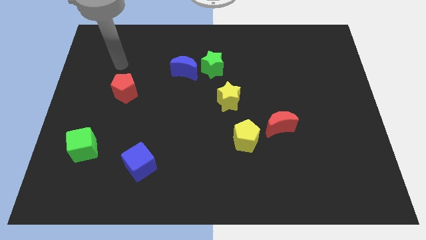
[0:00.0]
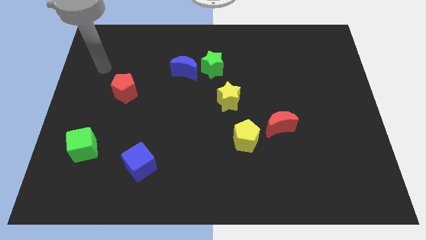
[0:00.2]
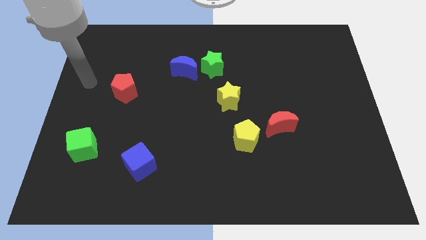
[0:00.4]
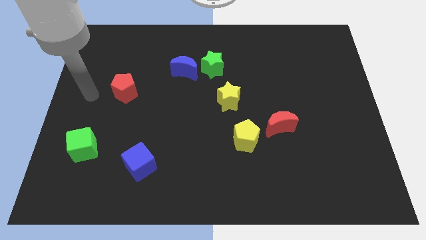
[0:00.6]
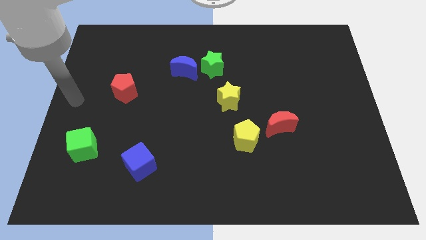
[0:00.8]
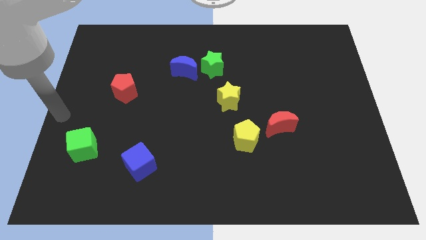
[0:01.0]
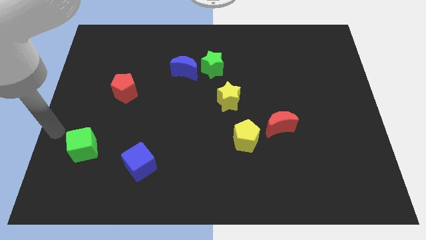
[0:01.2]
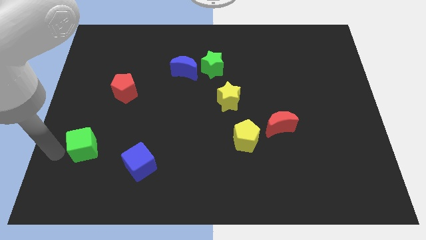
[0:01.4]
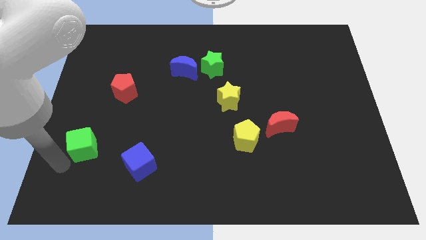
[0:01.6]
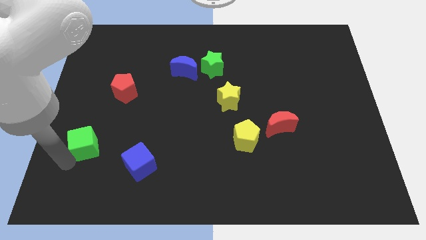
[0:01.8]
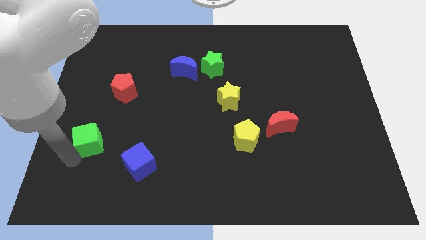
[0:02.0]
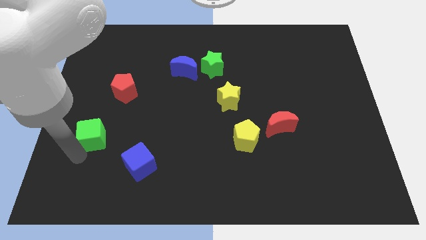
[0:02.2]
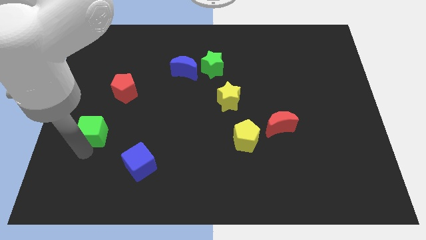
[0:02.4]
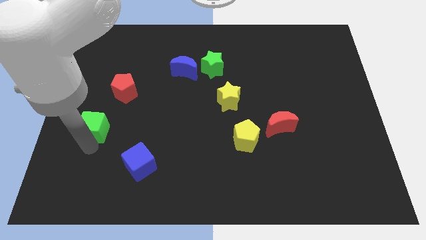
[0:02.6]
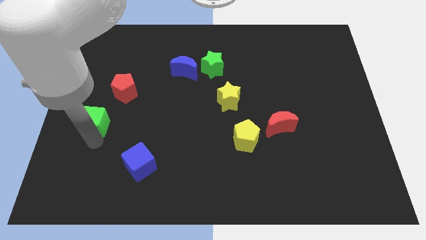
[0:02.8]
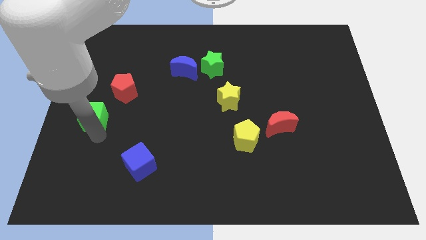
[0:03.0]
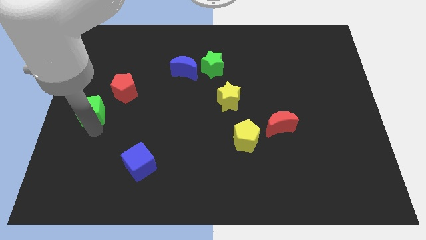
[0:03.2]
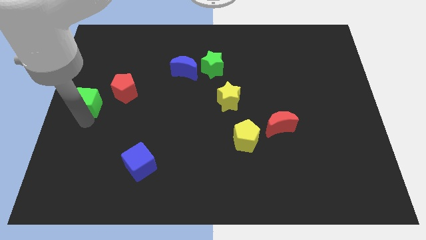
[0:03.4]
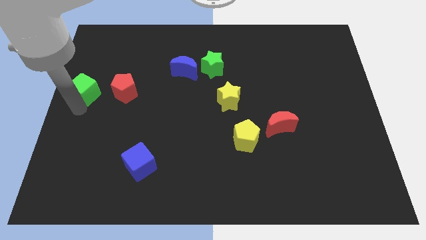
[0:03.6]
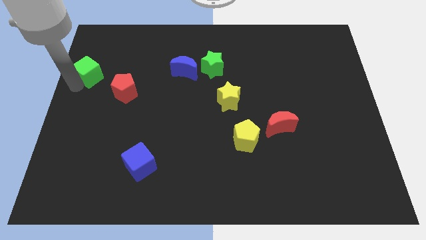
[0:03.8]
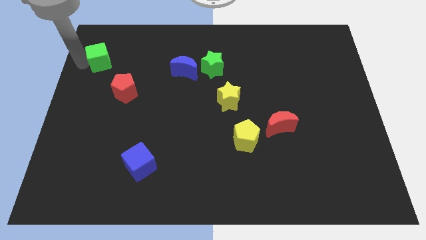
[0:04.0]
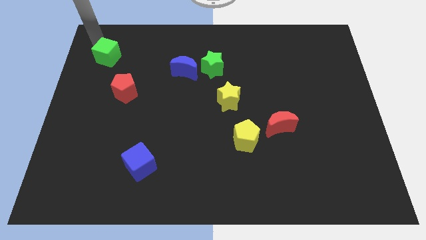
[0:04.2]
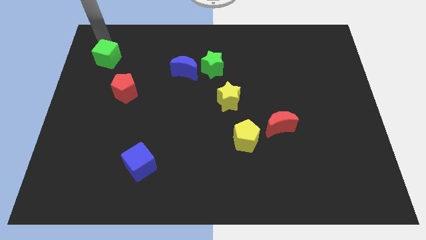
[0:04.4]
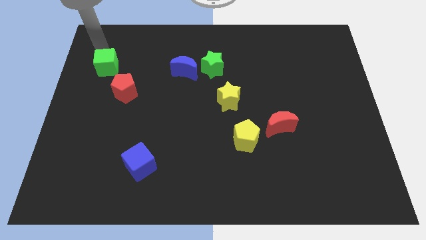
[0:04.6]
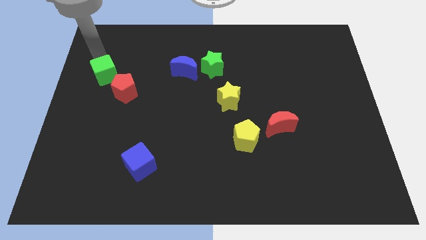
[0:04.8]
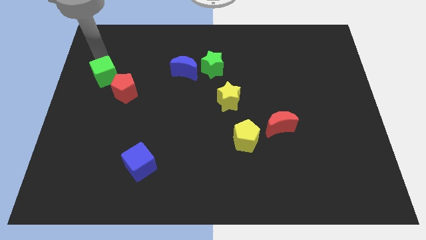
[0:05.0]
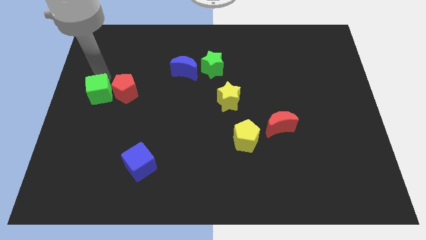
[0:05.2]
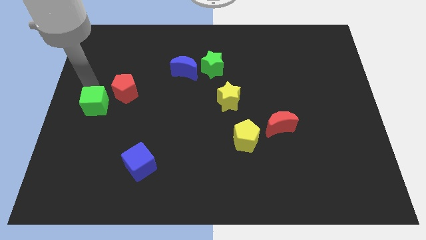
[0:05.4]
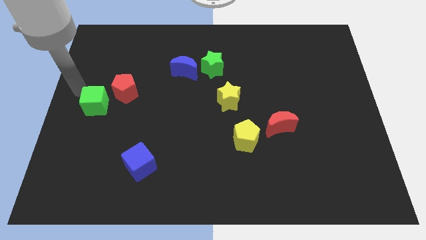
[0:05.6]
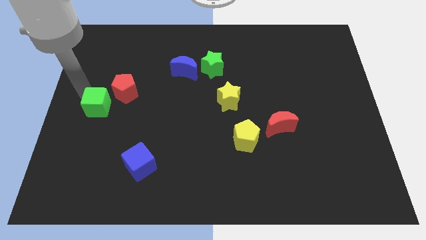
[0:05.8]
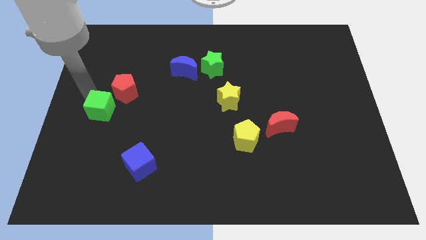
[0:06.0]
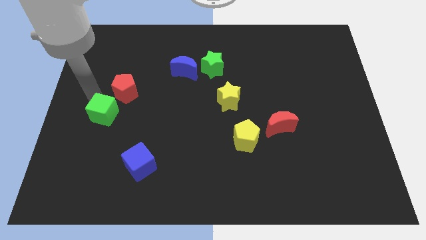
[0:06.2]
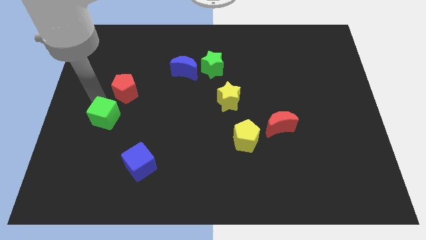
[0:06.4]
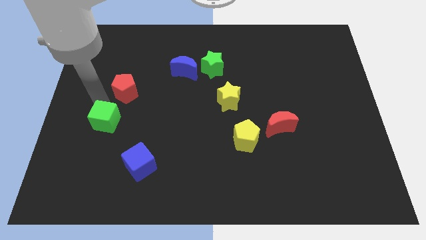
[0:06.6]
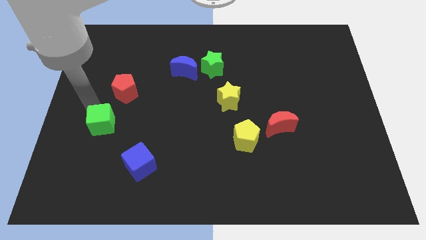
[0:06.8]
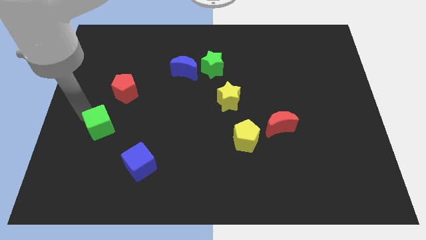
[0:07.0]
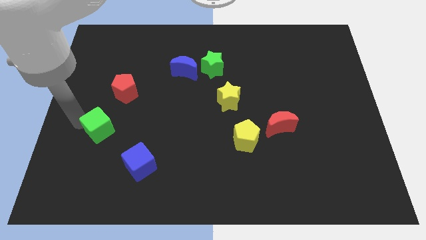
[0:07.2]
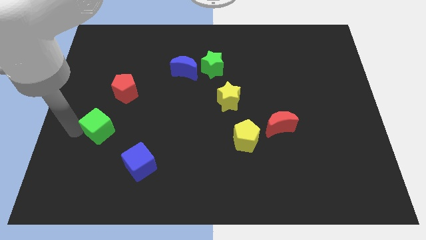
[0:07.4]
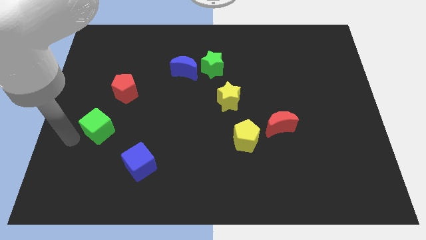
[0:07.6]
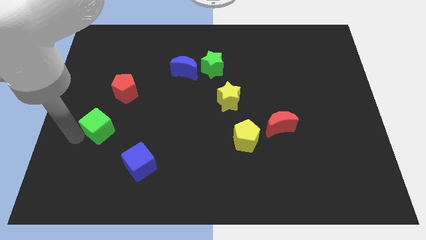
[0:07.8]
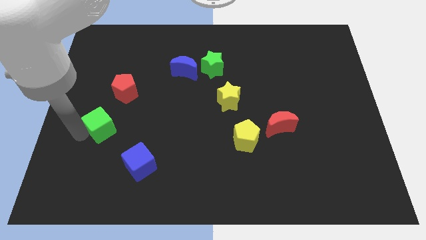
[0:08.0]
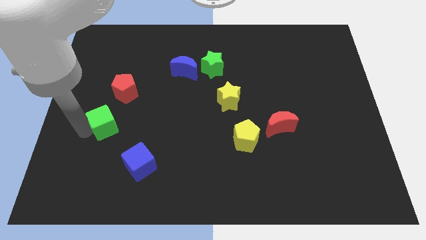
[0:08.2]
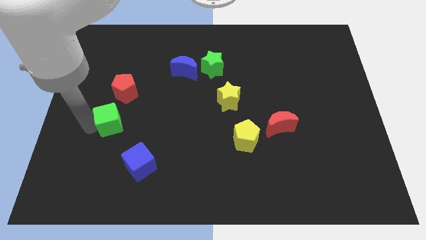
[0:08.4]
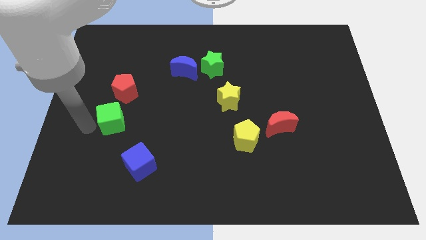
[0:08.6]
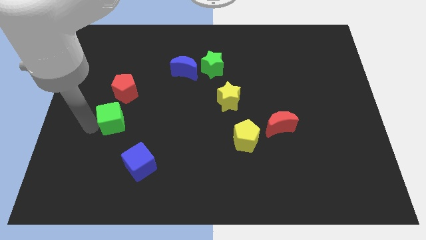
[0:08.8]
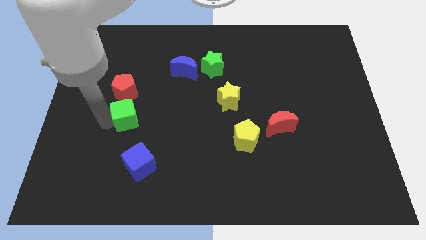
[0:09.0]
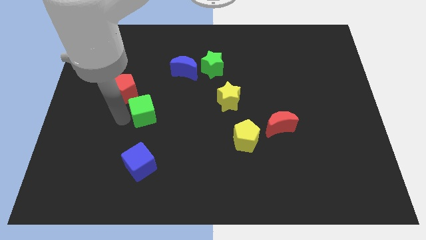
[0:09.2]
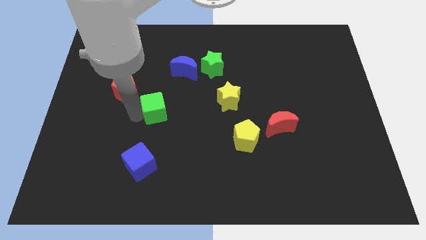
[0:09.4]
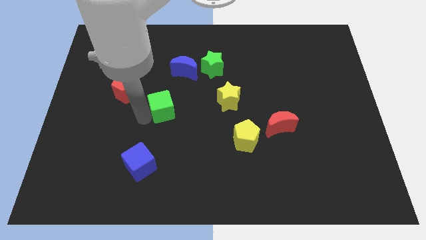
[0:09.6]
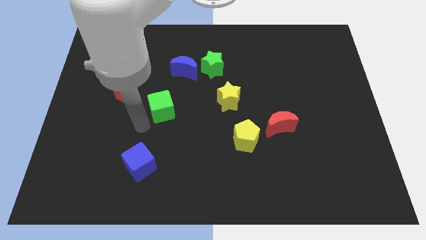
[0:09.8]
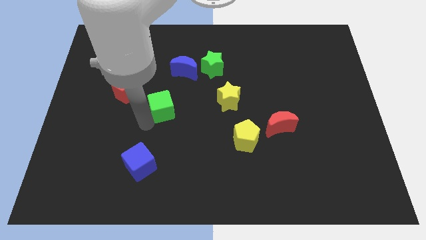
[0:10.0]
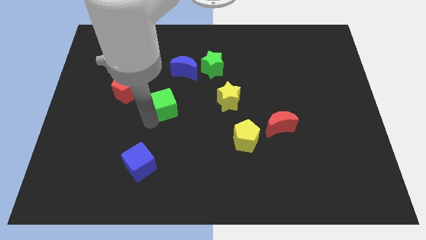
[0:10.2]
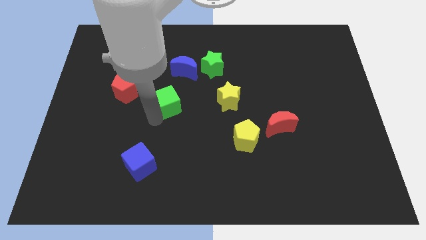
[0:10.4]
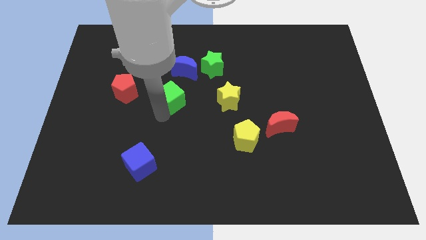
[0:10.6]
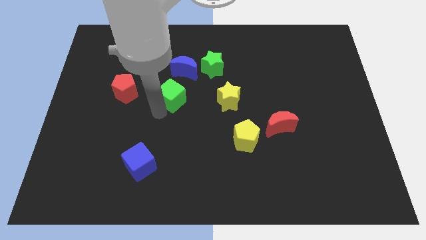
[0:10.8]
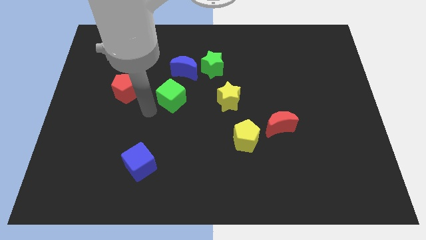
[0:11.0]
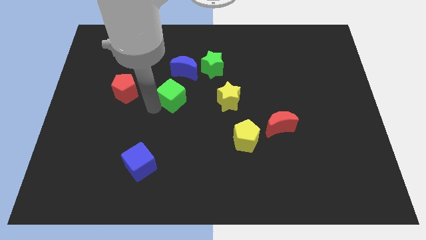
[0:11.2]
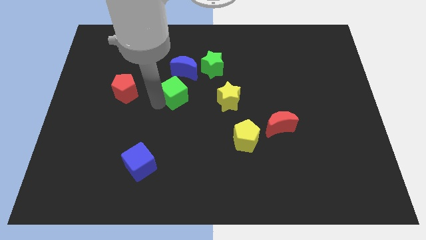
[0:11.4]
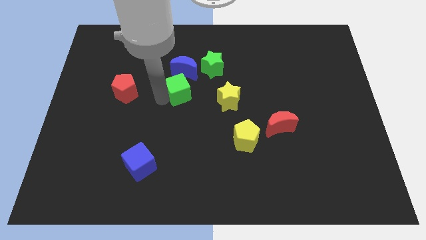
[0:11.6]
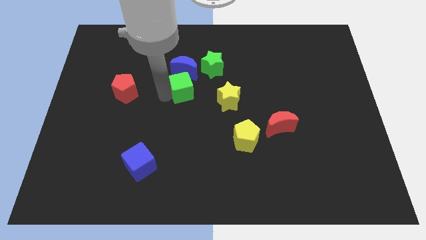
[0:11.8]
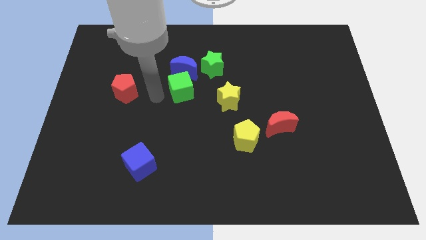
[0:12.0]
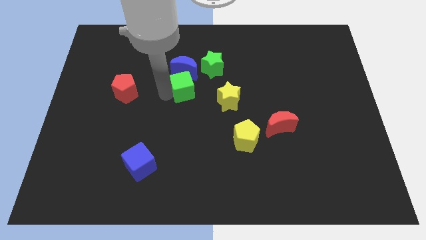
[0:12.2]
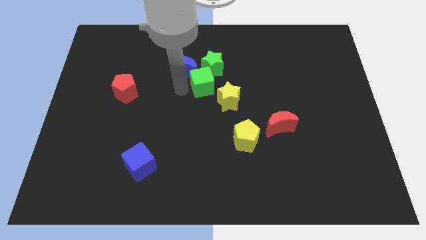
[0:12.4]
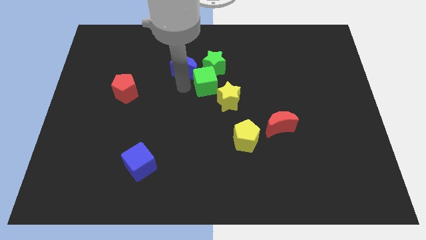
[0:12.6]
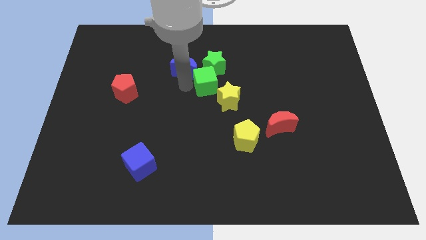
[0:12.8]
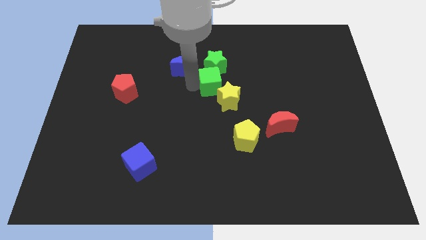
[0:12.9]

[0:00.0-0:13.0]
push the green cube to the bottom right of the green star

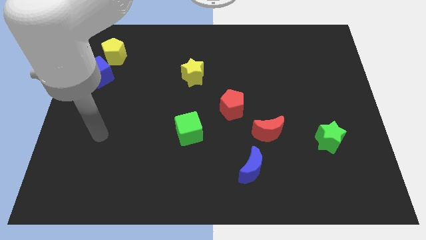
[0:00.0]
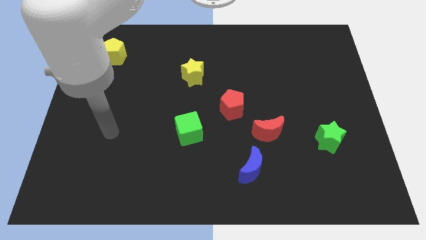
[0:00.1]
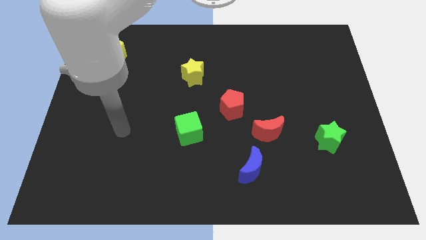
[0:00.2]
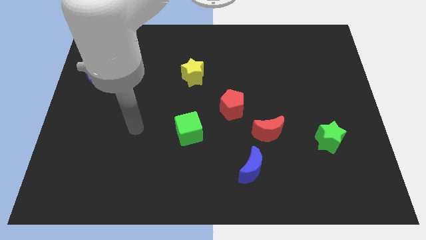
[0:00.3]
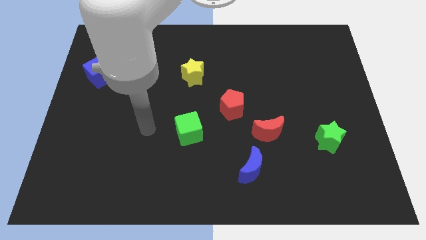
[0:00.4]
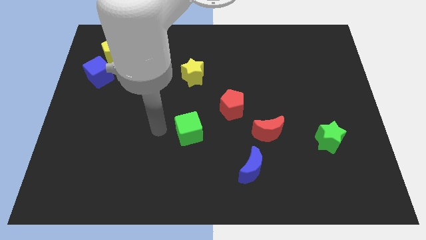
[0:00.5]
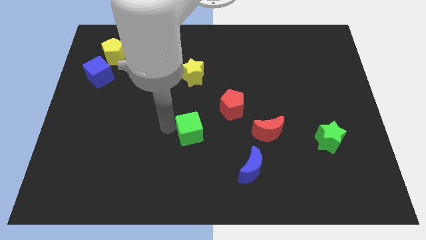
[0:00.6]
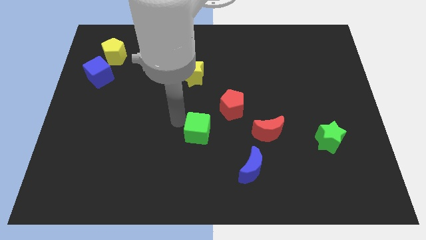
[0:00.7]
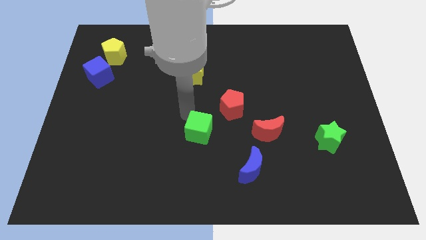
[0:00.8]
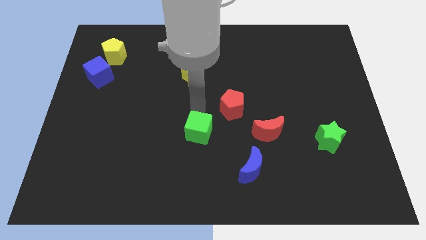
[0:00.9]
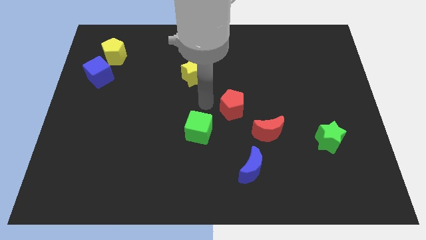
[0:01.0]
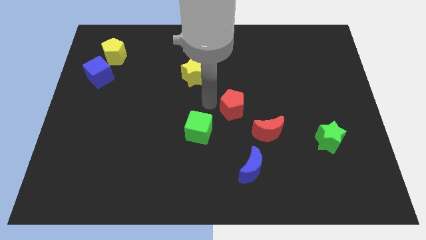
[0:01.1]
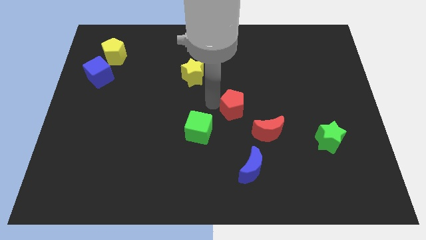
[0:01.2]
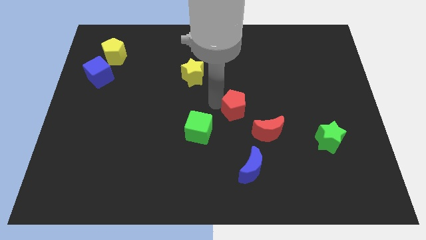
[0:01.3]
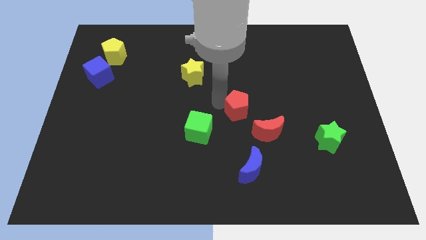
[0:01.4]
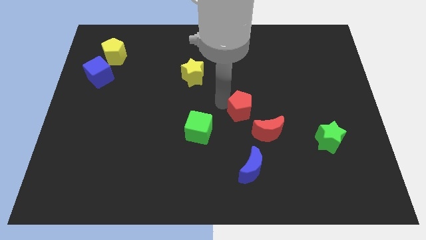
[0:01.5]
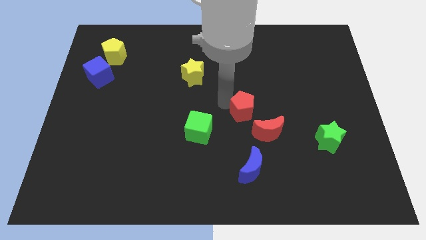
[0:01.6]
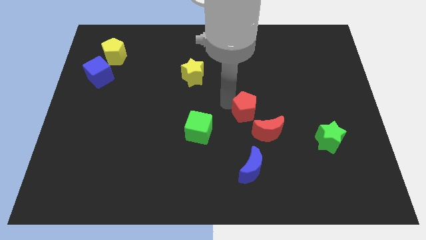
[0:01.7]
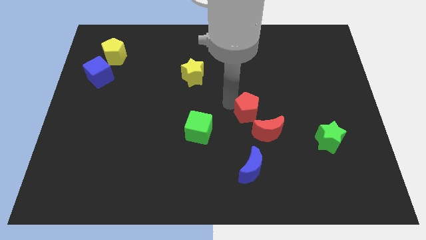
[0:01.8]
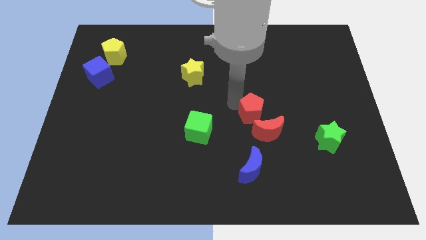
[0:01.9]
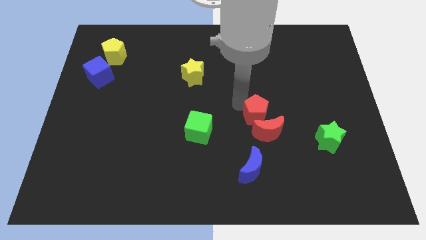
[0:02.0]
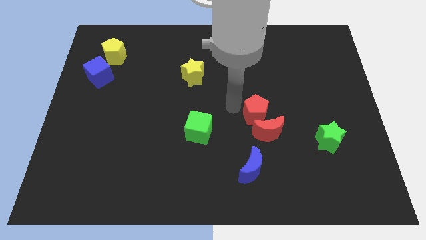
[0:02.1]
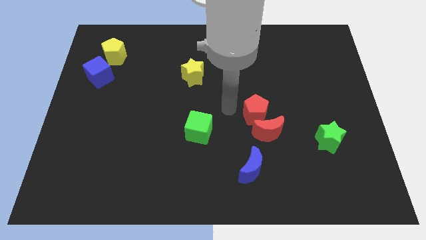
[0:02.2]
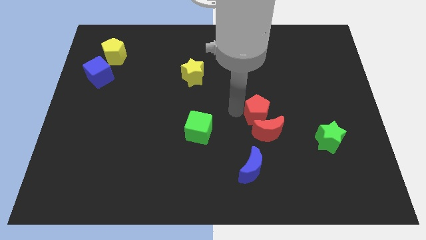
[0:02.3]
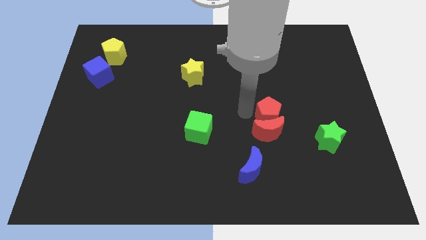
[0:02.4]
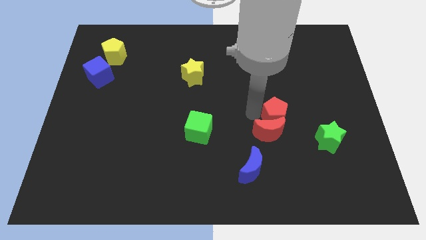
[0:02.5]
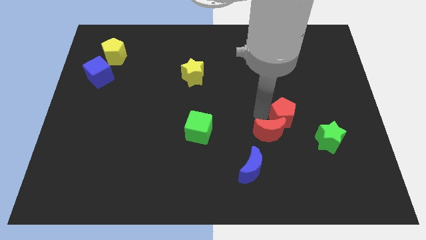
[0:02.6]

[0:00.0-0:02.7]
move the red pentagon to the top left side of the green star
